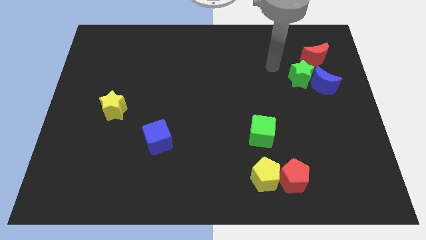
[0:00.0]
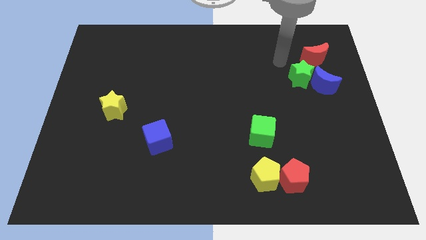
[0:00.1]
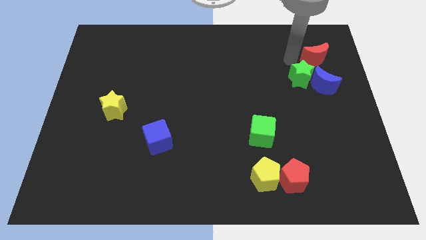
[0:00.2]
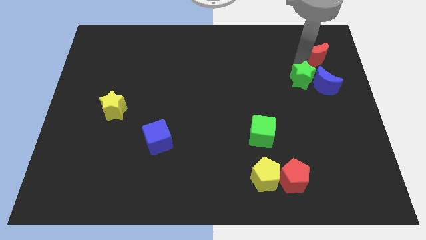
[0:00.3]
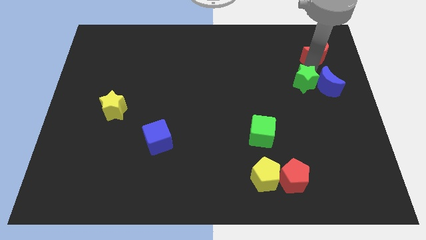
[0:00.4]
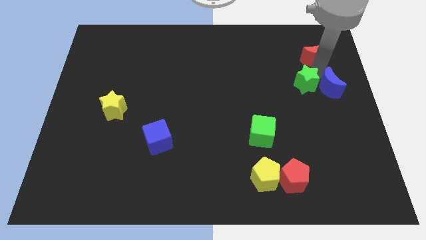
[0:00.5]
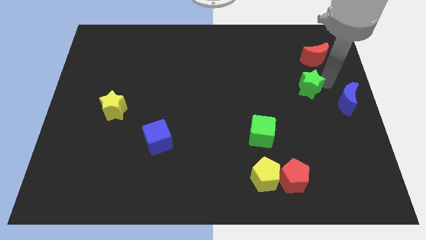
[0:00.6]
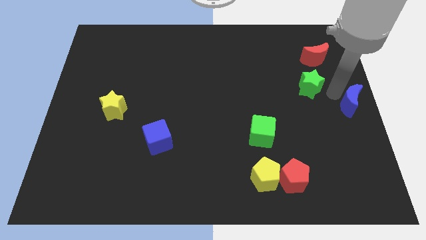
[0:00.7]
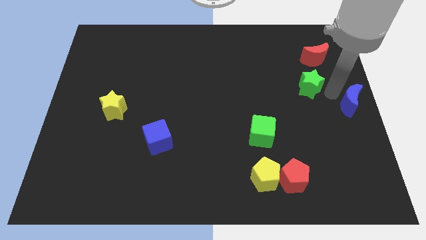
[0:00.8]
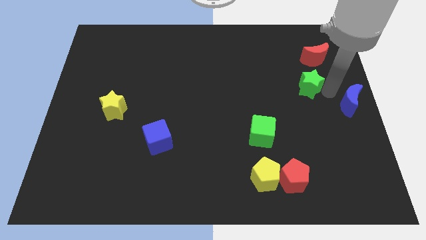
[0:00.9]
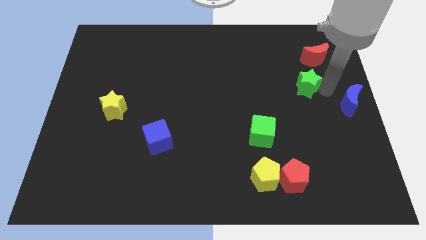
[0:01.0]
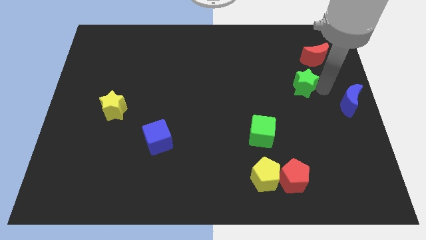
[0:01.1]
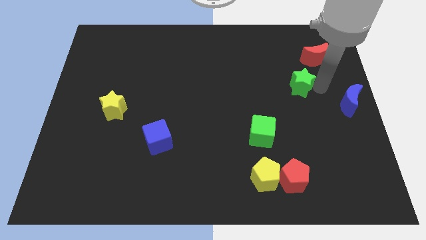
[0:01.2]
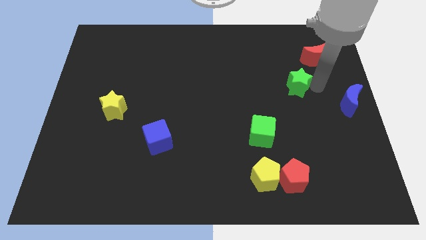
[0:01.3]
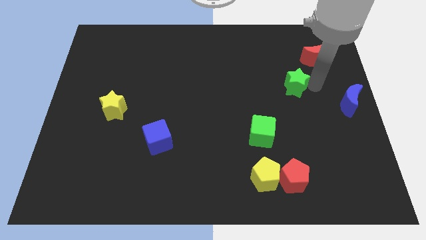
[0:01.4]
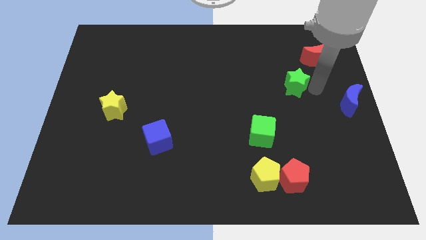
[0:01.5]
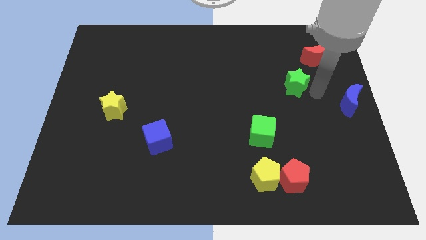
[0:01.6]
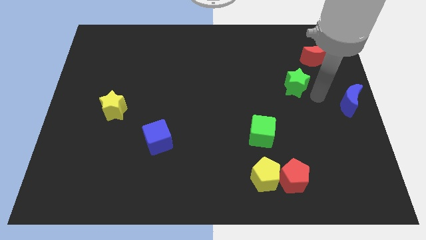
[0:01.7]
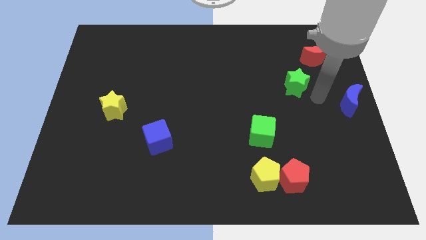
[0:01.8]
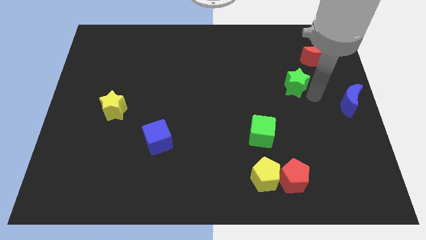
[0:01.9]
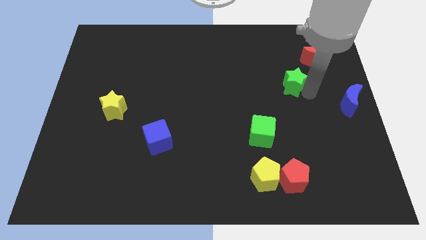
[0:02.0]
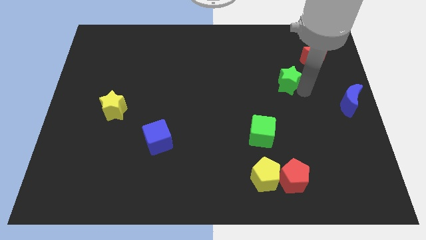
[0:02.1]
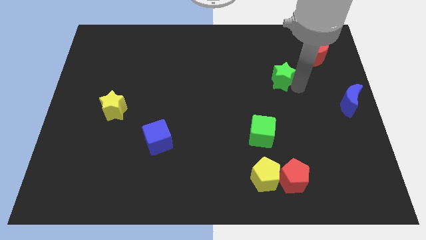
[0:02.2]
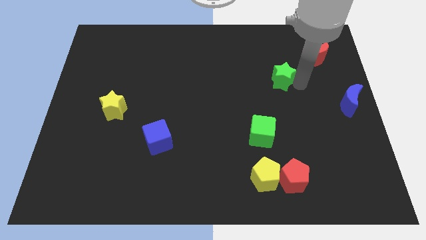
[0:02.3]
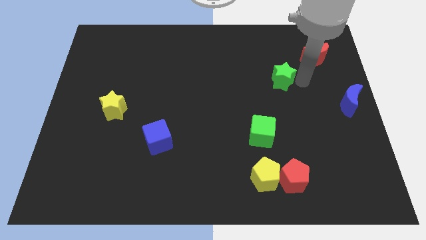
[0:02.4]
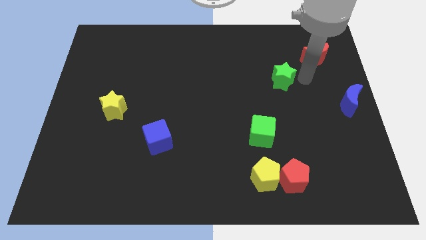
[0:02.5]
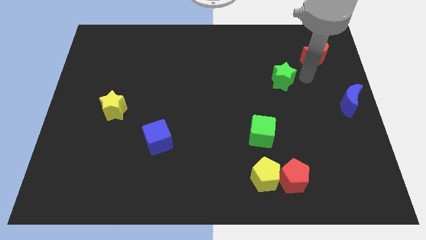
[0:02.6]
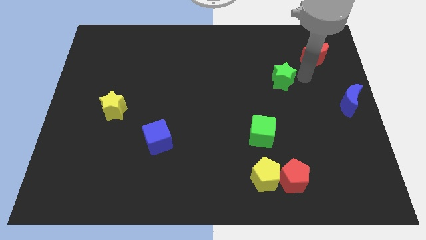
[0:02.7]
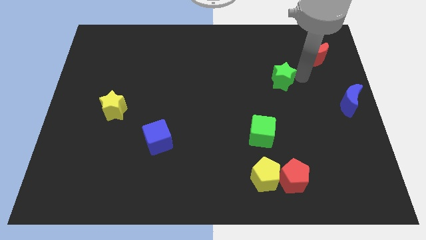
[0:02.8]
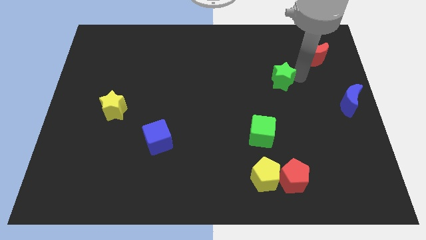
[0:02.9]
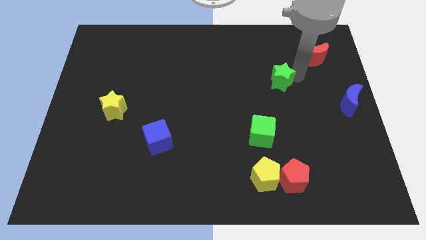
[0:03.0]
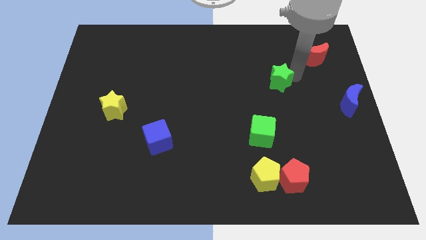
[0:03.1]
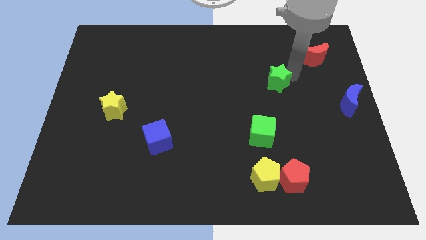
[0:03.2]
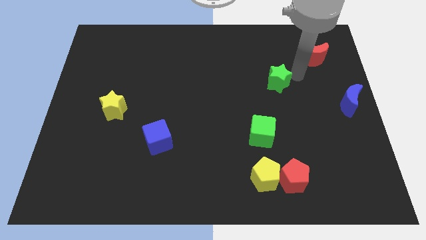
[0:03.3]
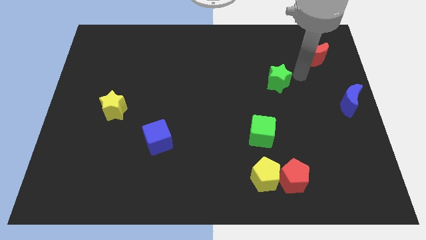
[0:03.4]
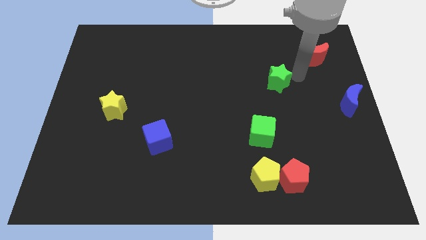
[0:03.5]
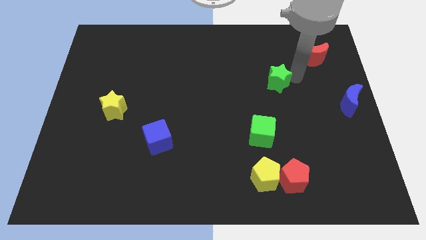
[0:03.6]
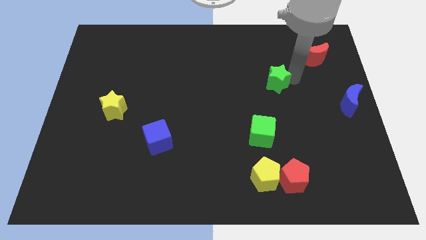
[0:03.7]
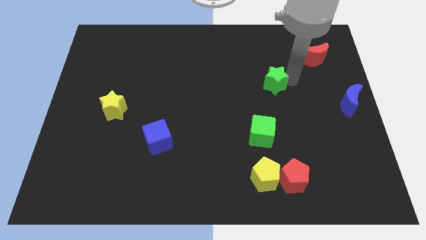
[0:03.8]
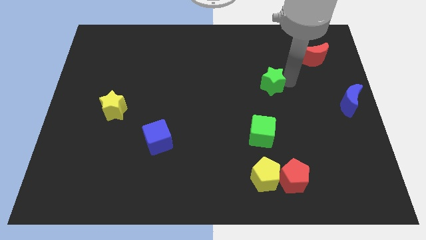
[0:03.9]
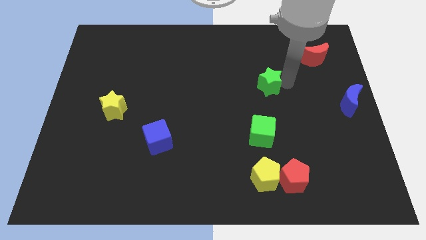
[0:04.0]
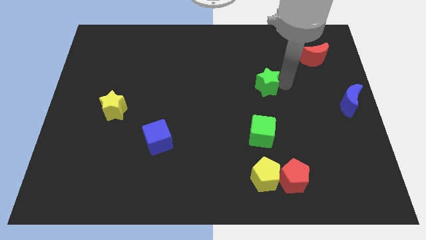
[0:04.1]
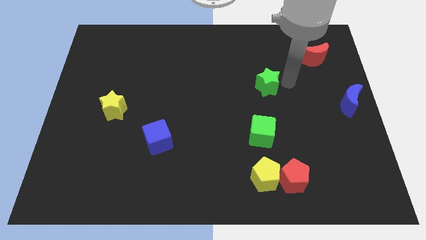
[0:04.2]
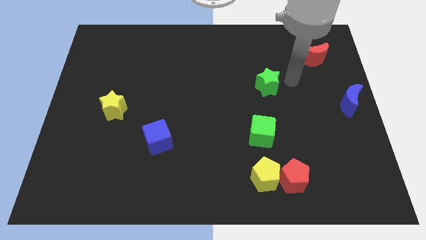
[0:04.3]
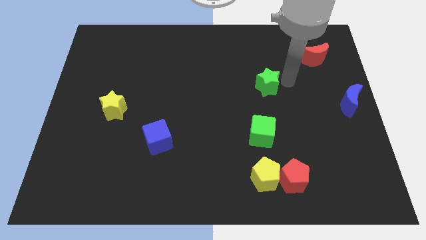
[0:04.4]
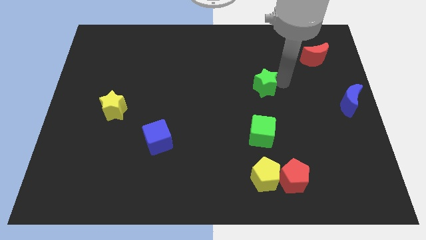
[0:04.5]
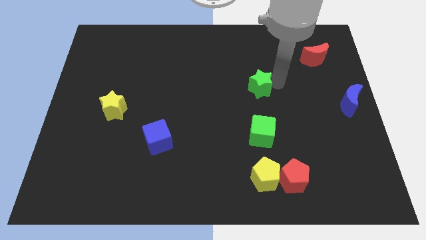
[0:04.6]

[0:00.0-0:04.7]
push the green star to the middle

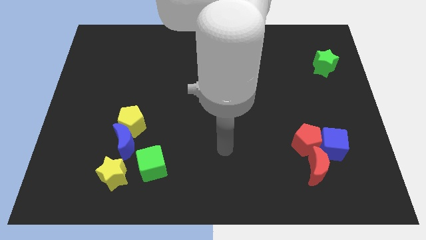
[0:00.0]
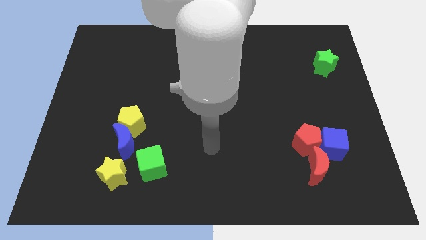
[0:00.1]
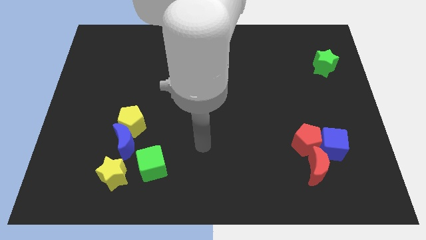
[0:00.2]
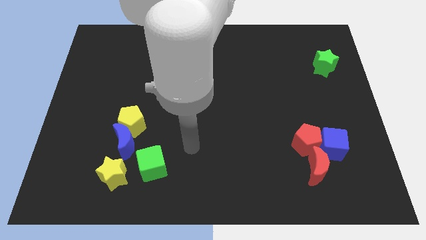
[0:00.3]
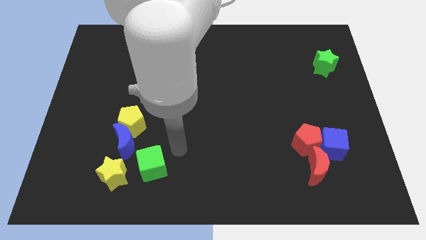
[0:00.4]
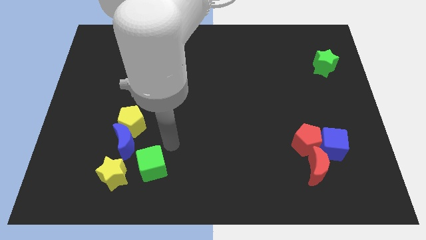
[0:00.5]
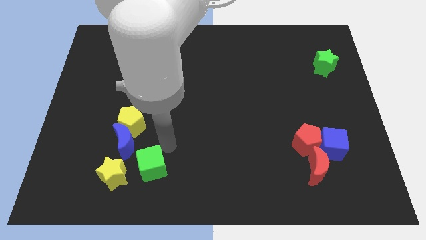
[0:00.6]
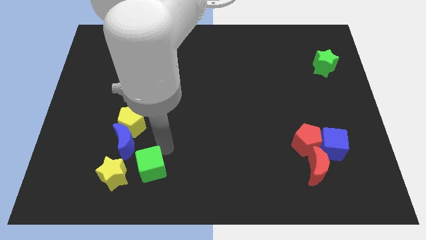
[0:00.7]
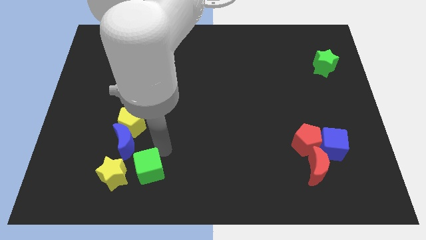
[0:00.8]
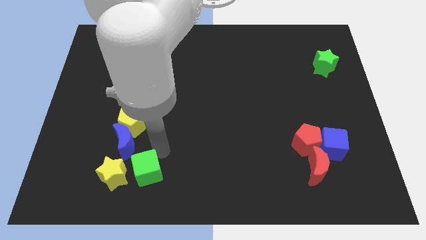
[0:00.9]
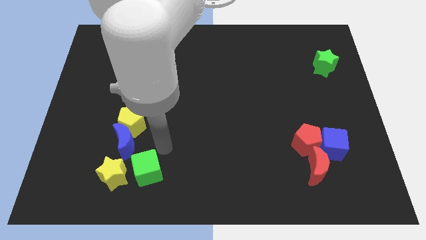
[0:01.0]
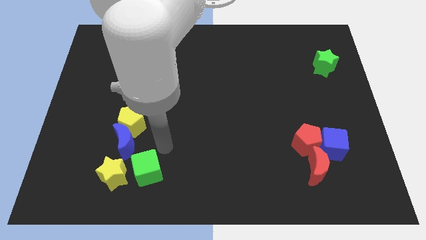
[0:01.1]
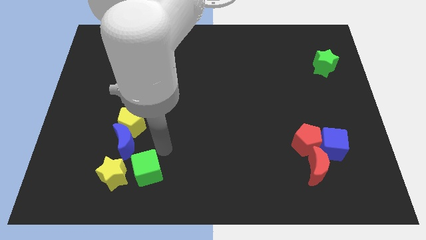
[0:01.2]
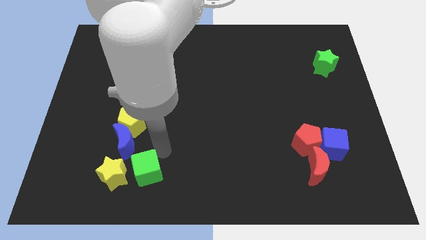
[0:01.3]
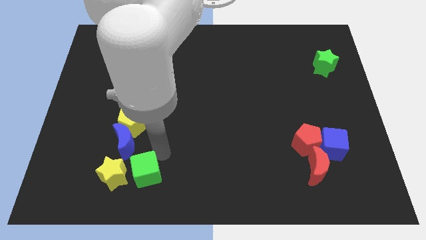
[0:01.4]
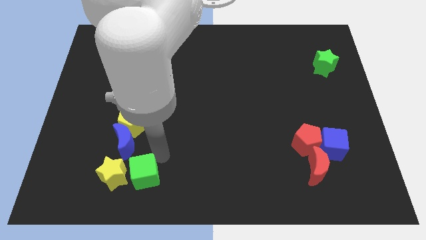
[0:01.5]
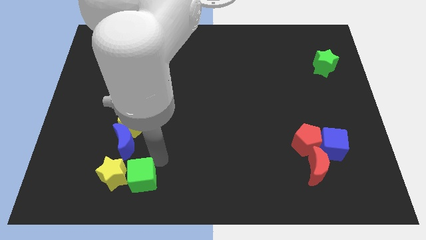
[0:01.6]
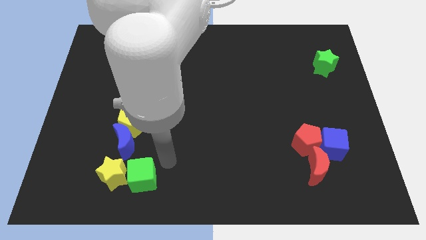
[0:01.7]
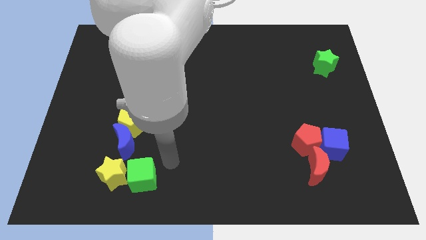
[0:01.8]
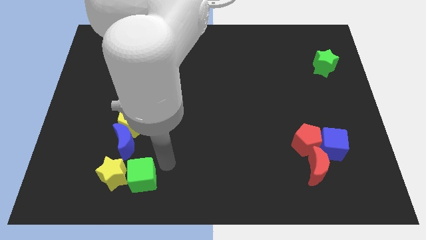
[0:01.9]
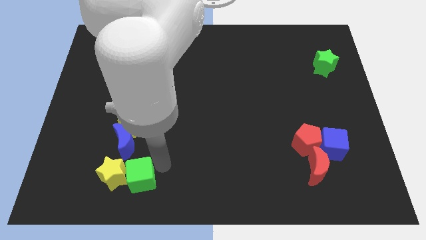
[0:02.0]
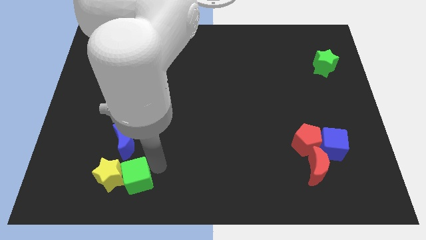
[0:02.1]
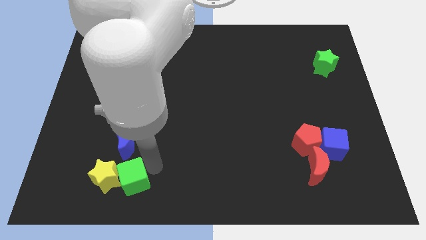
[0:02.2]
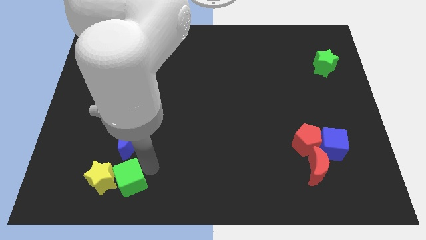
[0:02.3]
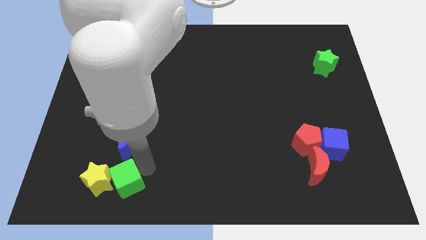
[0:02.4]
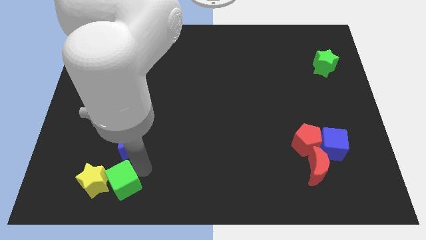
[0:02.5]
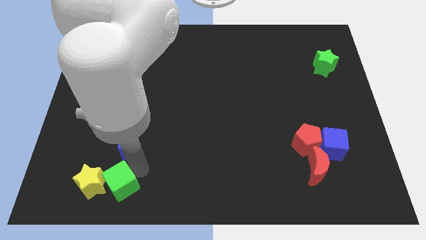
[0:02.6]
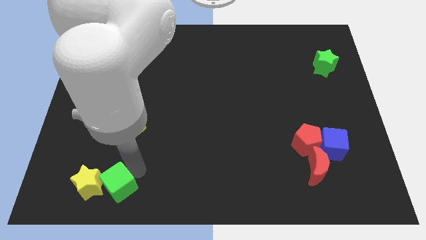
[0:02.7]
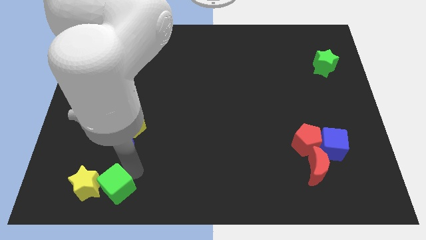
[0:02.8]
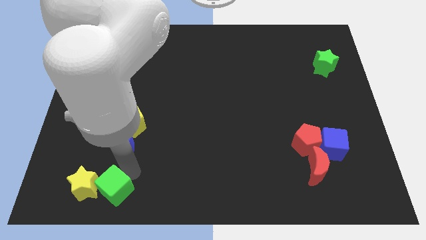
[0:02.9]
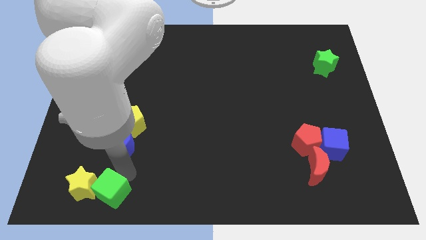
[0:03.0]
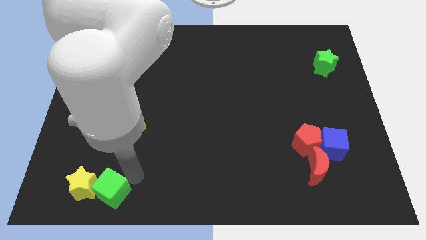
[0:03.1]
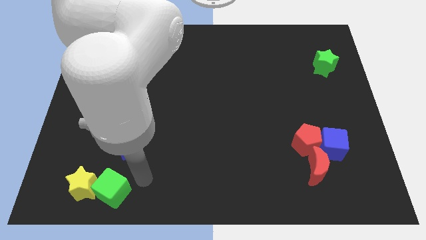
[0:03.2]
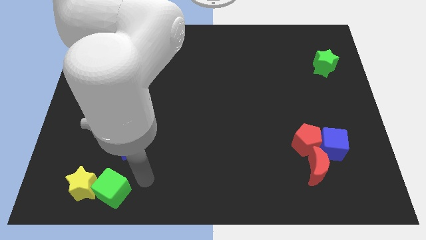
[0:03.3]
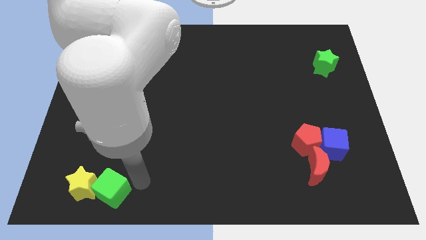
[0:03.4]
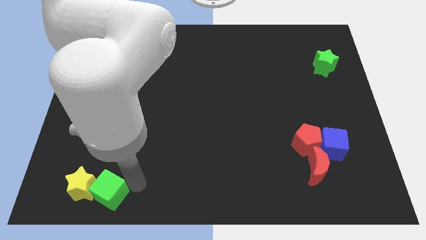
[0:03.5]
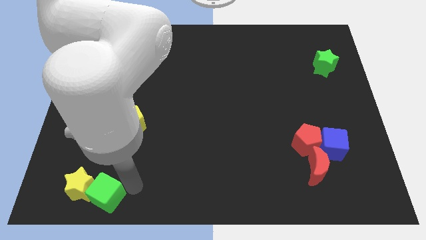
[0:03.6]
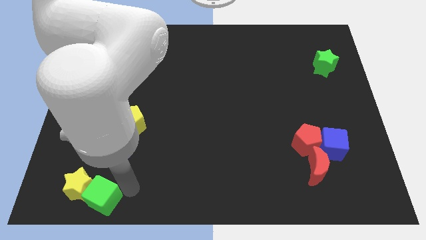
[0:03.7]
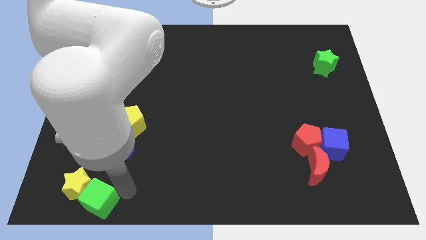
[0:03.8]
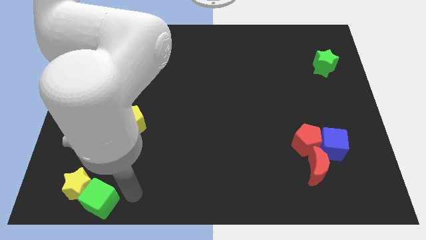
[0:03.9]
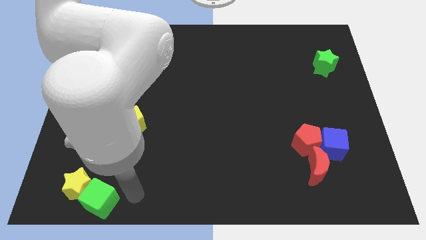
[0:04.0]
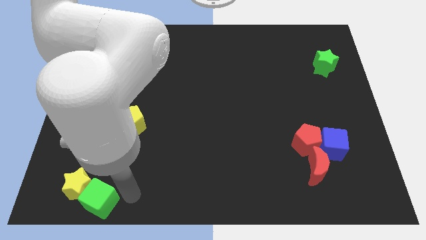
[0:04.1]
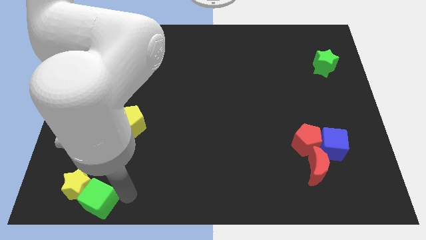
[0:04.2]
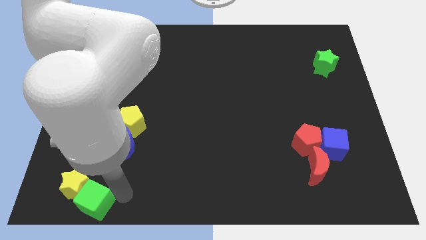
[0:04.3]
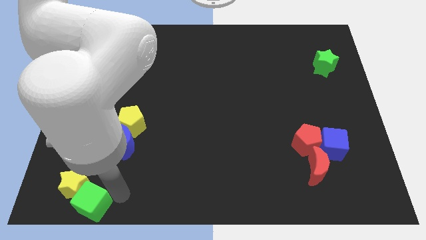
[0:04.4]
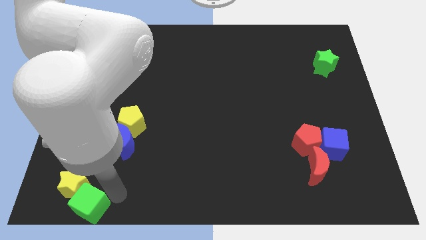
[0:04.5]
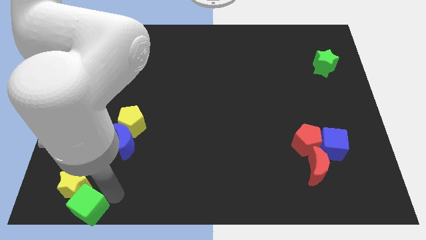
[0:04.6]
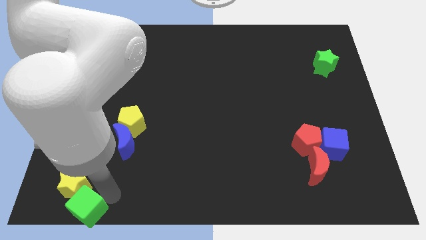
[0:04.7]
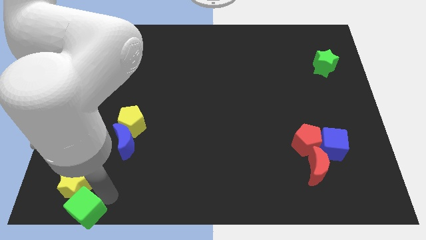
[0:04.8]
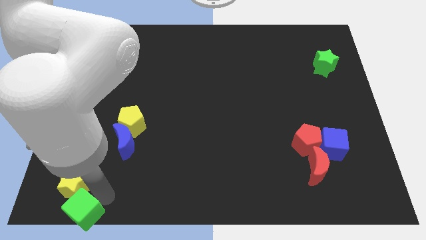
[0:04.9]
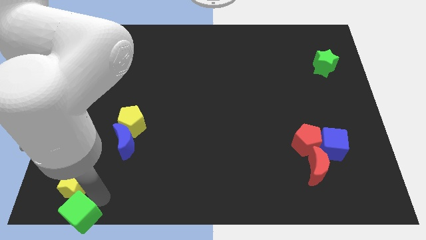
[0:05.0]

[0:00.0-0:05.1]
slide the green cube to the bottom left of the board
